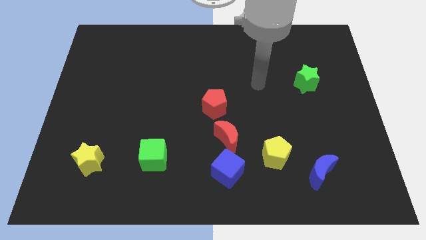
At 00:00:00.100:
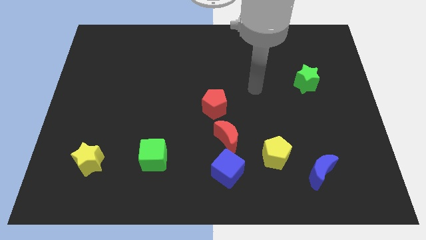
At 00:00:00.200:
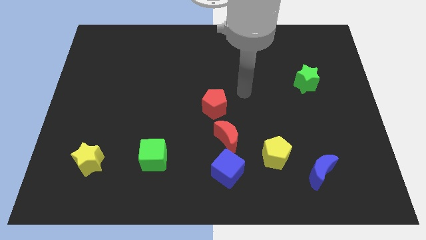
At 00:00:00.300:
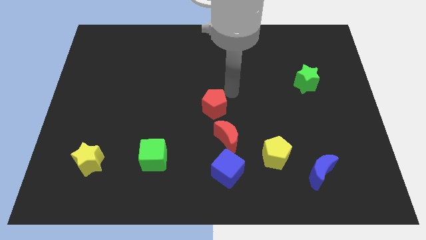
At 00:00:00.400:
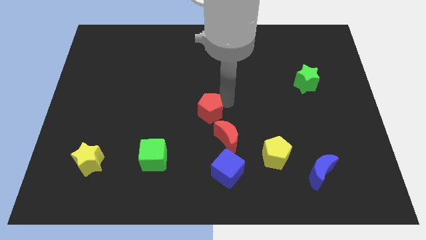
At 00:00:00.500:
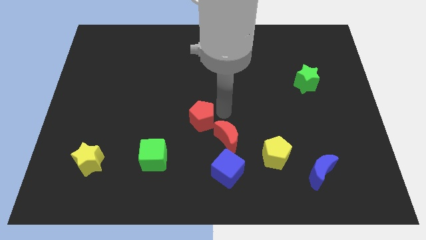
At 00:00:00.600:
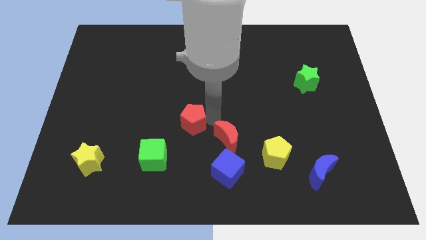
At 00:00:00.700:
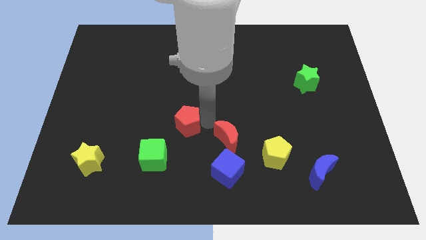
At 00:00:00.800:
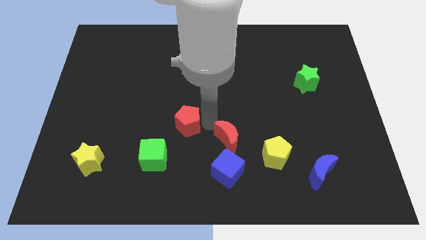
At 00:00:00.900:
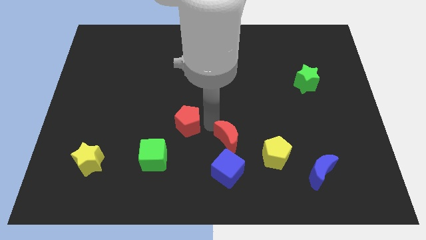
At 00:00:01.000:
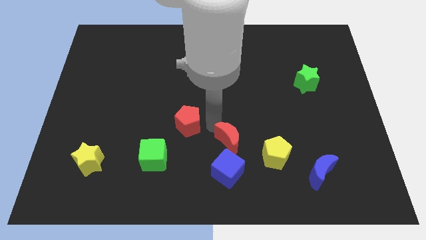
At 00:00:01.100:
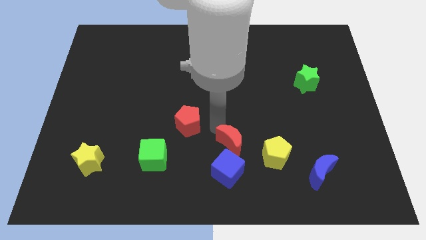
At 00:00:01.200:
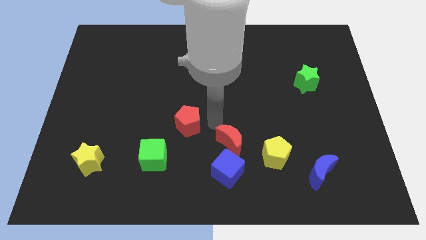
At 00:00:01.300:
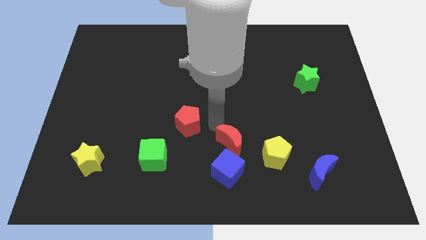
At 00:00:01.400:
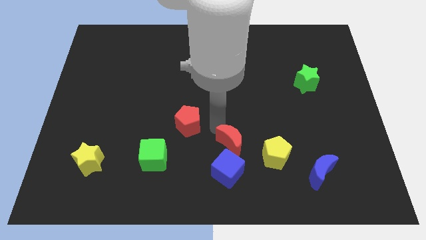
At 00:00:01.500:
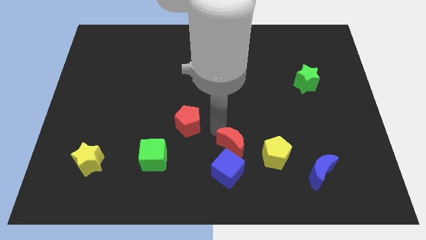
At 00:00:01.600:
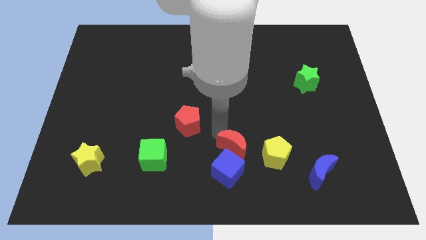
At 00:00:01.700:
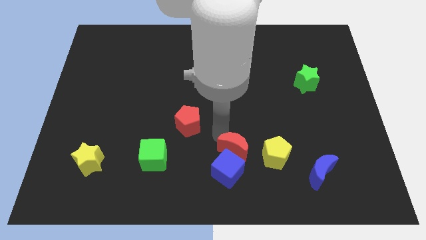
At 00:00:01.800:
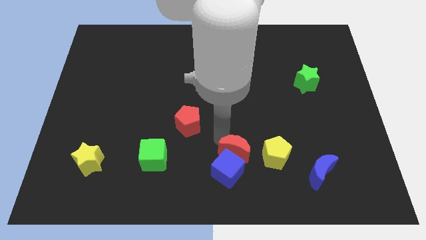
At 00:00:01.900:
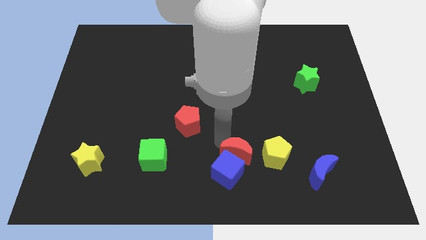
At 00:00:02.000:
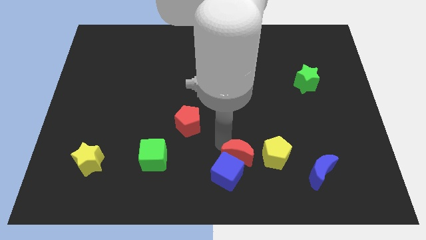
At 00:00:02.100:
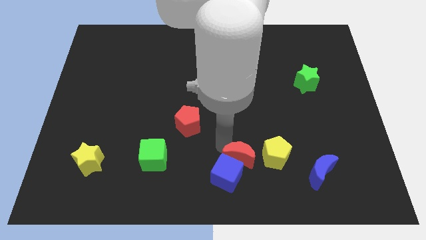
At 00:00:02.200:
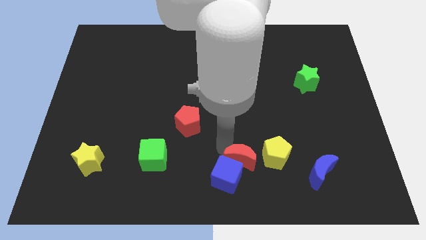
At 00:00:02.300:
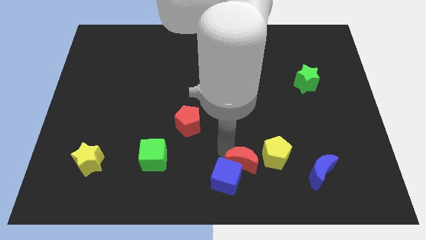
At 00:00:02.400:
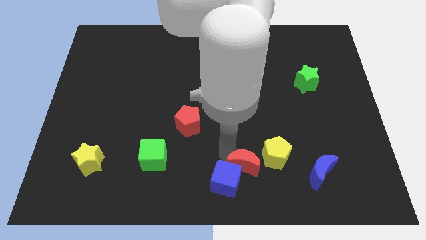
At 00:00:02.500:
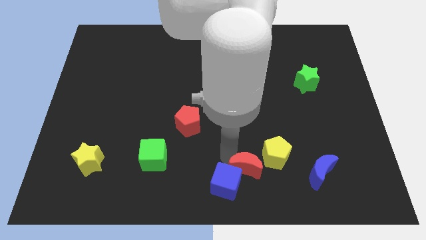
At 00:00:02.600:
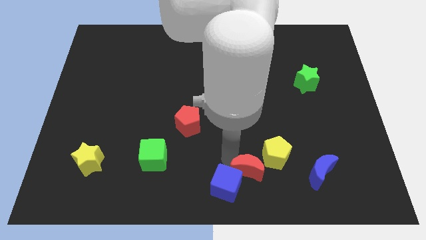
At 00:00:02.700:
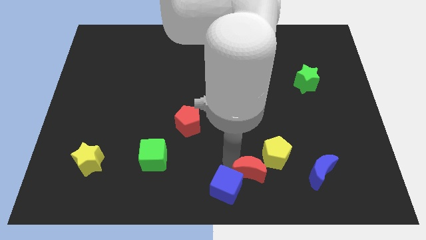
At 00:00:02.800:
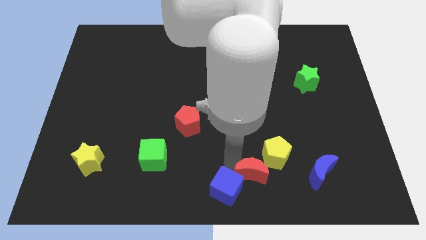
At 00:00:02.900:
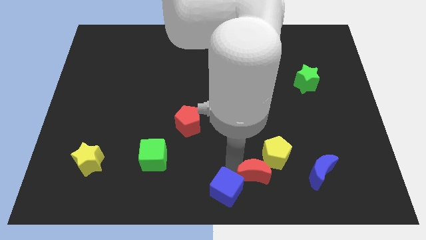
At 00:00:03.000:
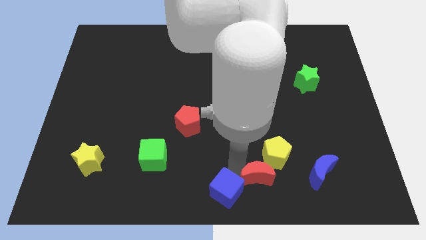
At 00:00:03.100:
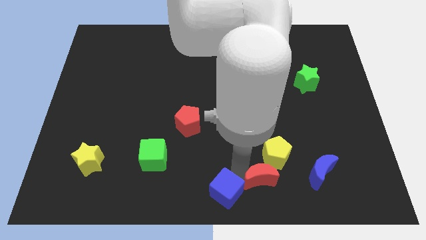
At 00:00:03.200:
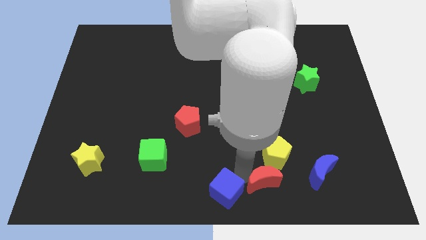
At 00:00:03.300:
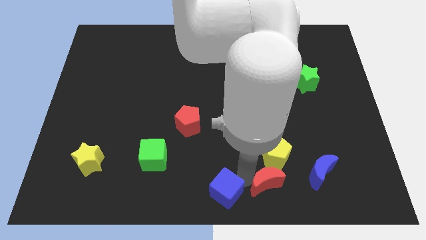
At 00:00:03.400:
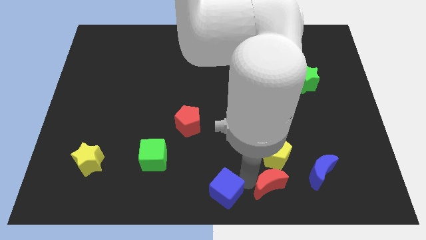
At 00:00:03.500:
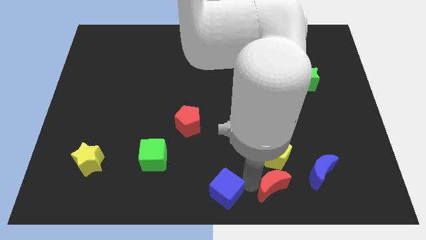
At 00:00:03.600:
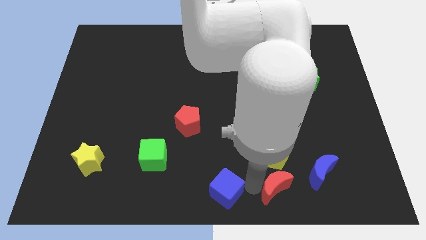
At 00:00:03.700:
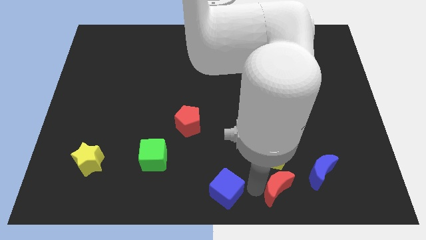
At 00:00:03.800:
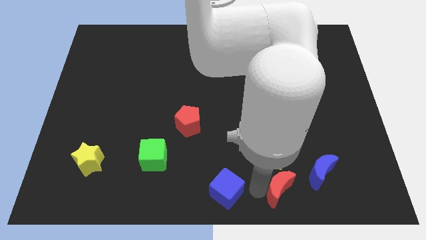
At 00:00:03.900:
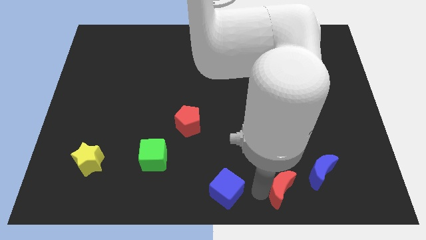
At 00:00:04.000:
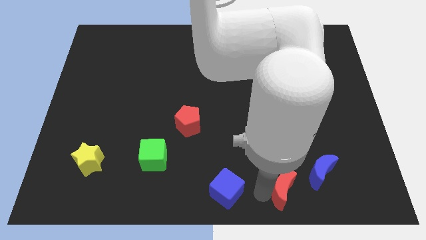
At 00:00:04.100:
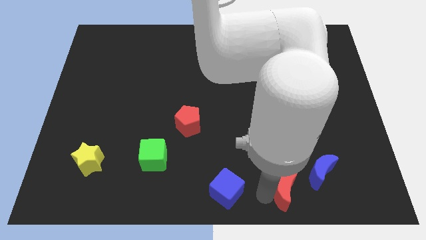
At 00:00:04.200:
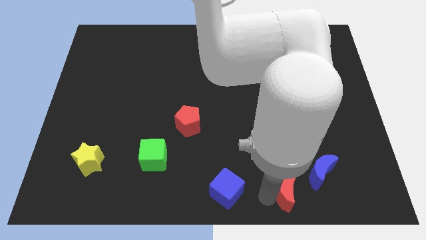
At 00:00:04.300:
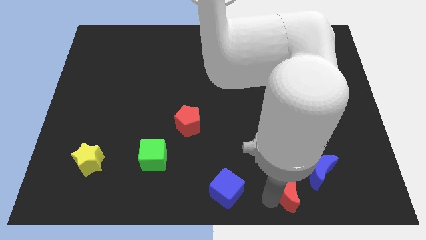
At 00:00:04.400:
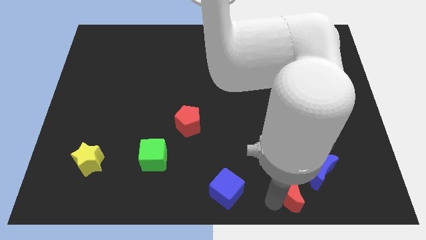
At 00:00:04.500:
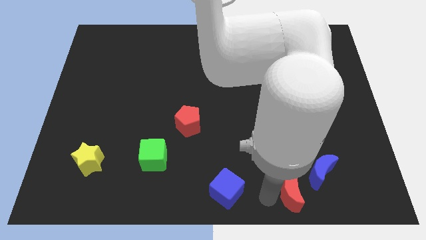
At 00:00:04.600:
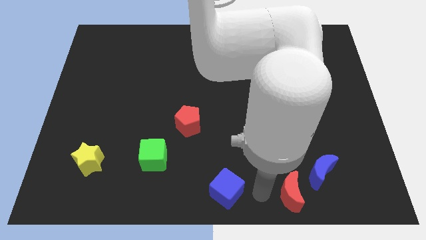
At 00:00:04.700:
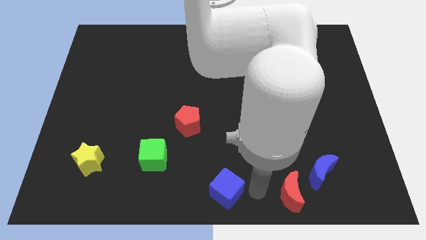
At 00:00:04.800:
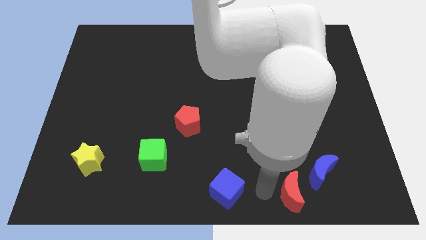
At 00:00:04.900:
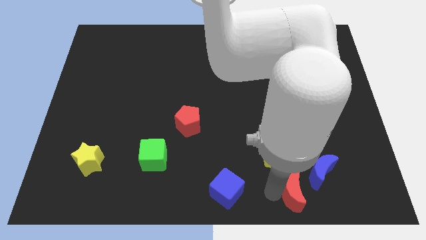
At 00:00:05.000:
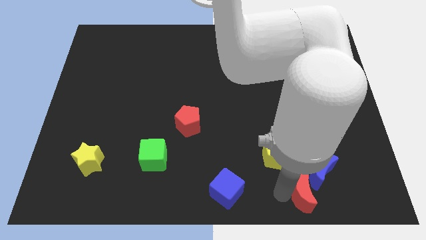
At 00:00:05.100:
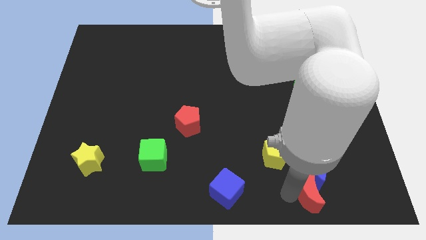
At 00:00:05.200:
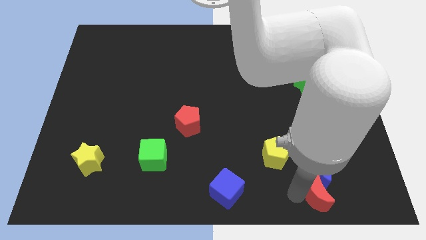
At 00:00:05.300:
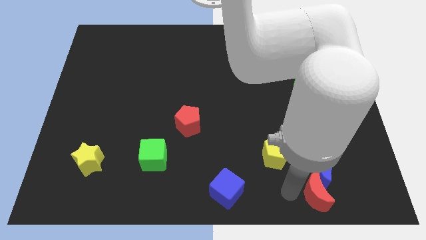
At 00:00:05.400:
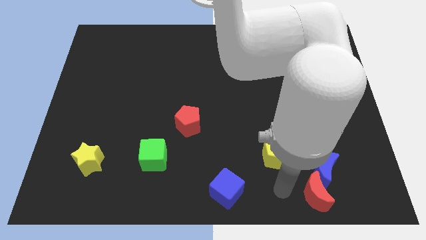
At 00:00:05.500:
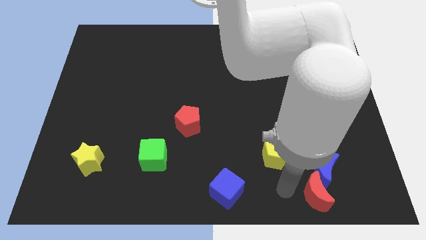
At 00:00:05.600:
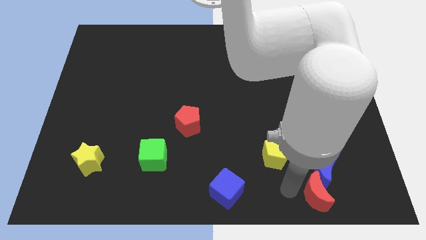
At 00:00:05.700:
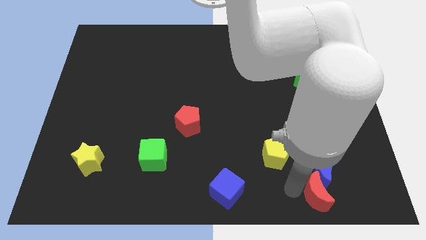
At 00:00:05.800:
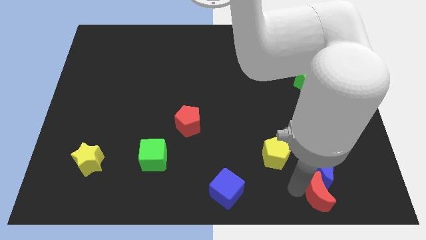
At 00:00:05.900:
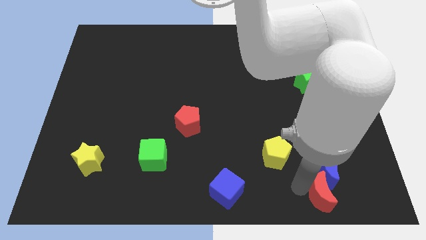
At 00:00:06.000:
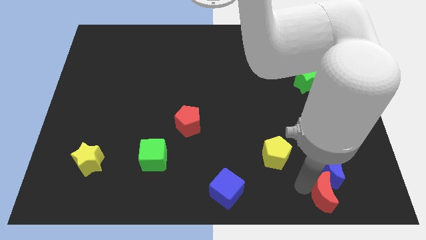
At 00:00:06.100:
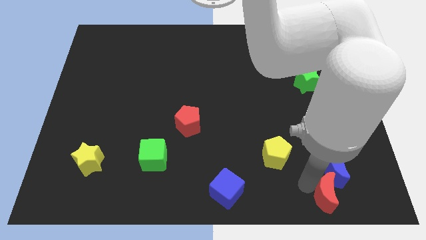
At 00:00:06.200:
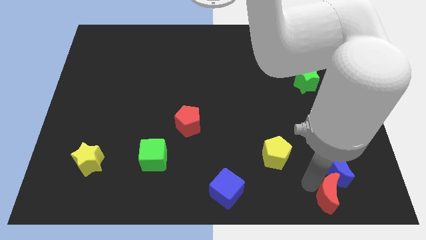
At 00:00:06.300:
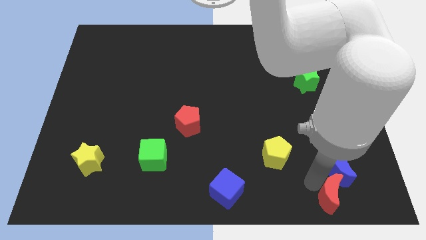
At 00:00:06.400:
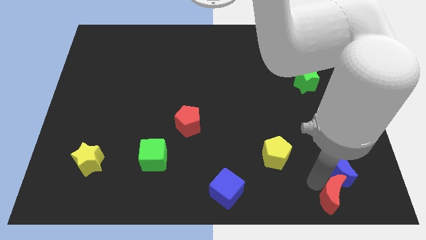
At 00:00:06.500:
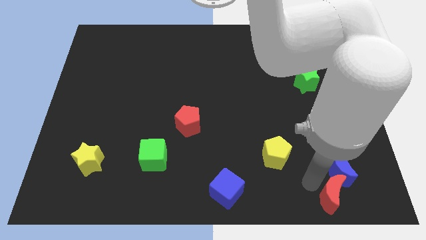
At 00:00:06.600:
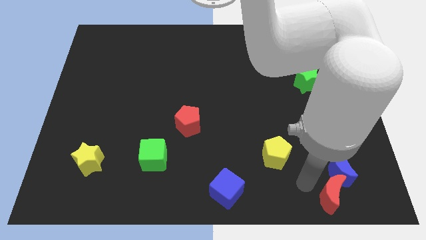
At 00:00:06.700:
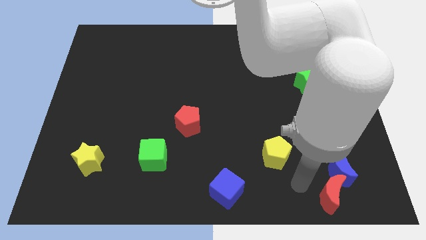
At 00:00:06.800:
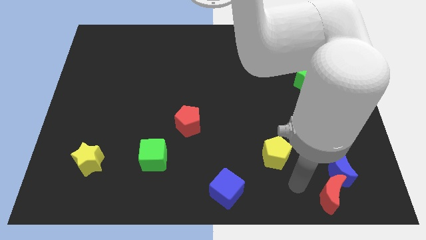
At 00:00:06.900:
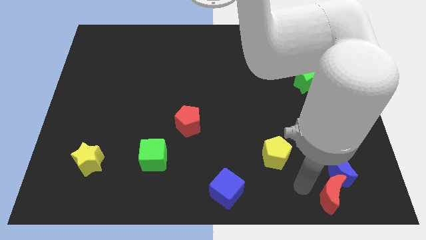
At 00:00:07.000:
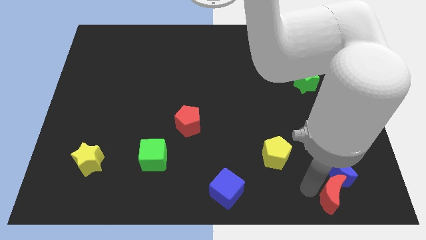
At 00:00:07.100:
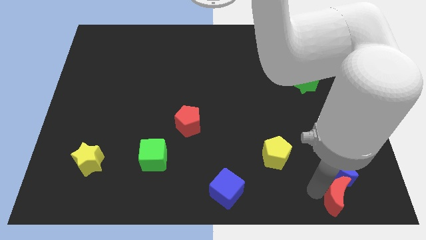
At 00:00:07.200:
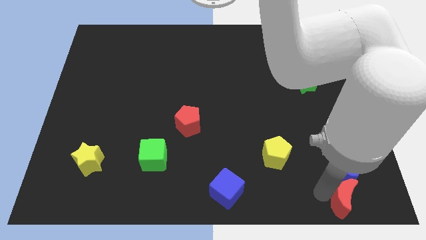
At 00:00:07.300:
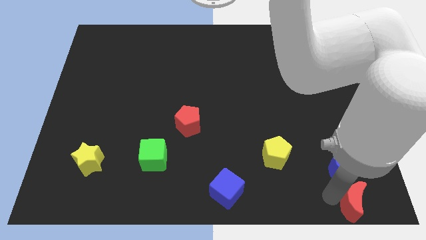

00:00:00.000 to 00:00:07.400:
put the red moon to the bottom right
